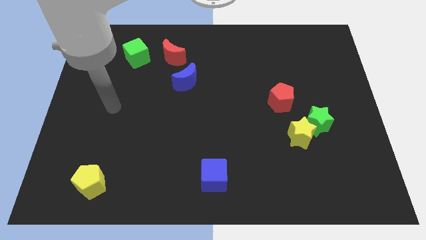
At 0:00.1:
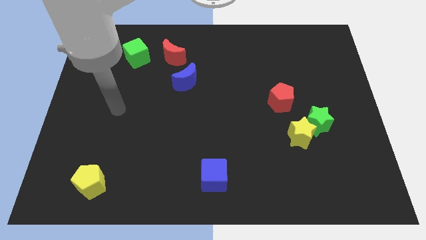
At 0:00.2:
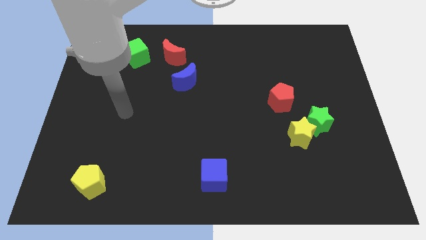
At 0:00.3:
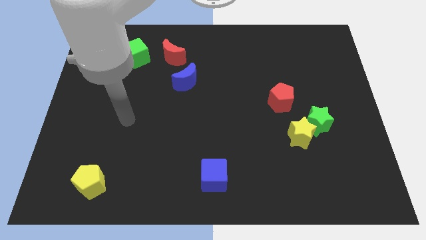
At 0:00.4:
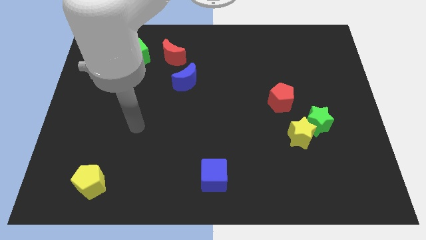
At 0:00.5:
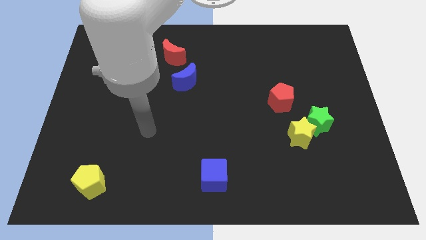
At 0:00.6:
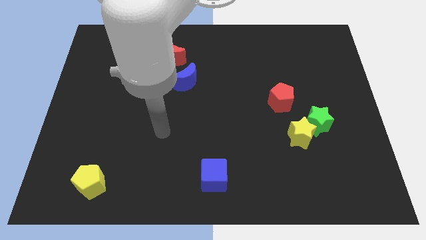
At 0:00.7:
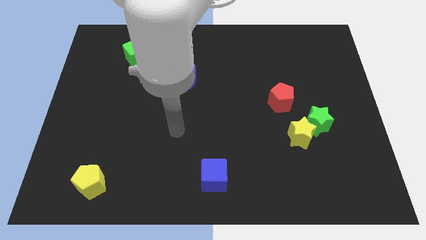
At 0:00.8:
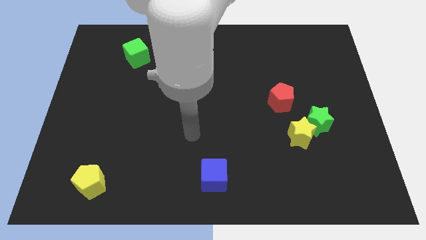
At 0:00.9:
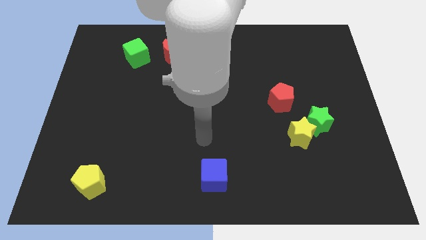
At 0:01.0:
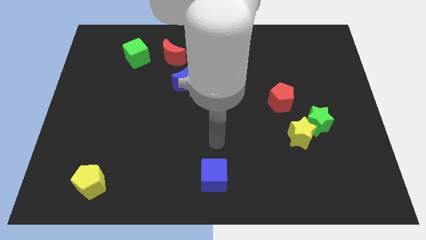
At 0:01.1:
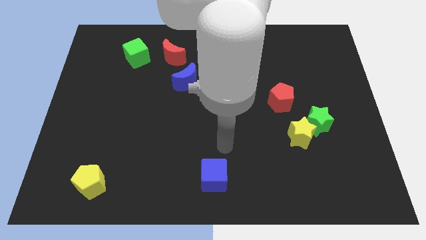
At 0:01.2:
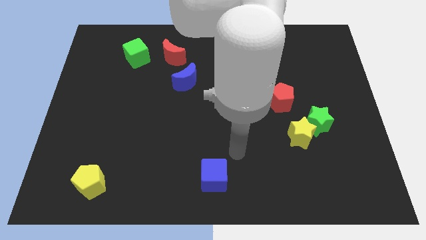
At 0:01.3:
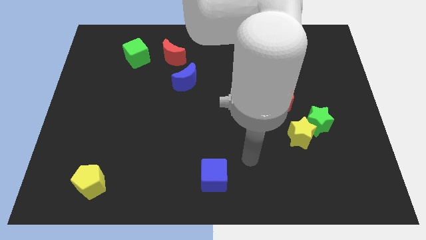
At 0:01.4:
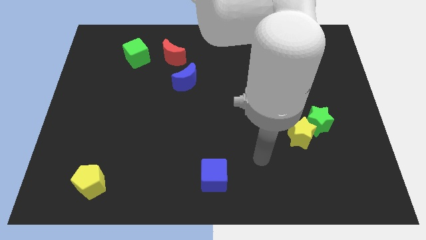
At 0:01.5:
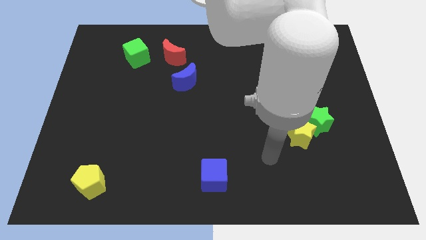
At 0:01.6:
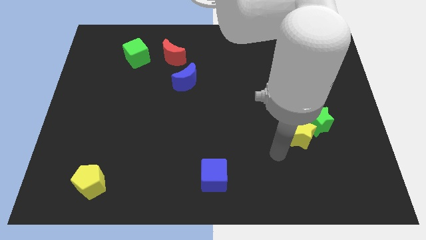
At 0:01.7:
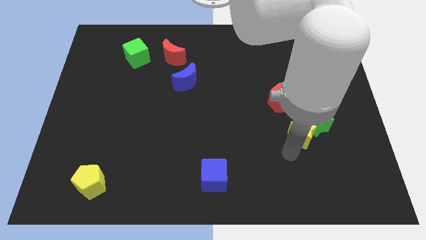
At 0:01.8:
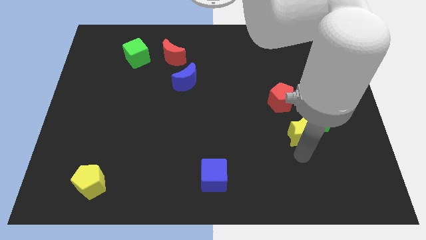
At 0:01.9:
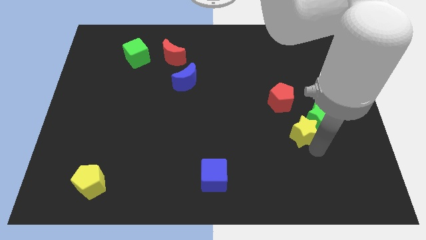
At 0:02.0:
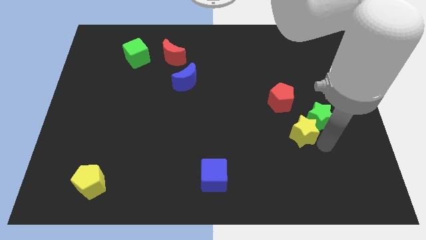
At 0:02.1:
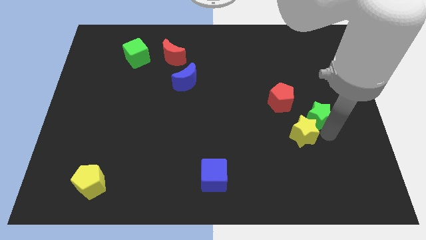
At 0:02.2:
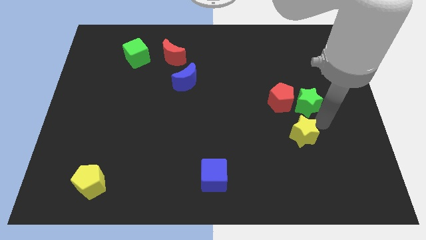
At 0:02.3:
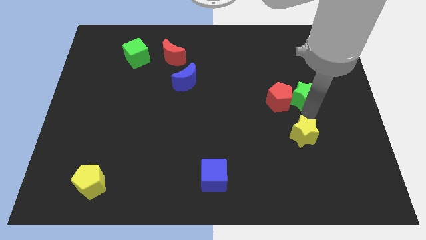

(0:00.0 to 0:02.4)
pull the yellow star apart from the green star

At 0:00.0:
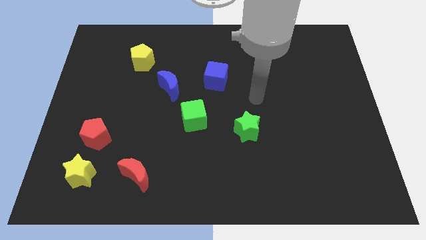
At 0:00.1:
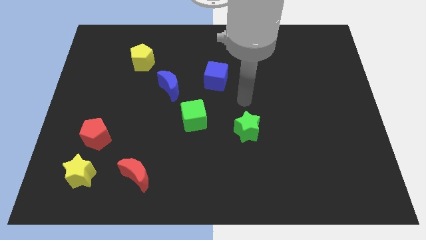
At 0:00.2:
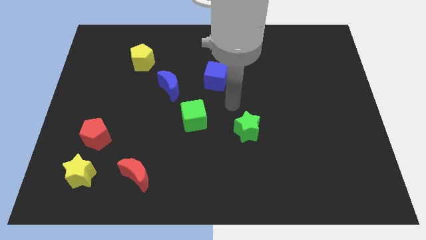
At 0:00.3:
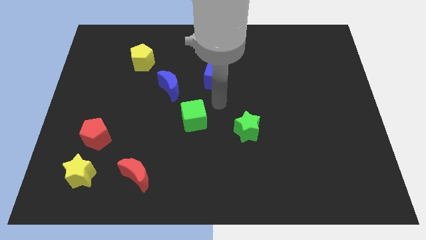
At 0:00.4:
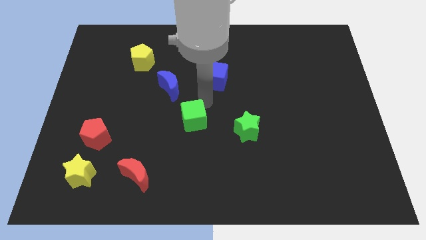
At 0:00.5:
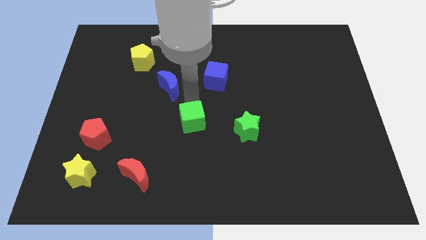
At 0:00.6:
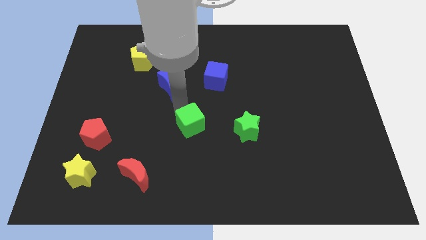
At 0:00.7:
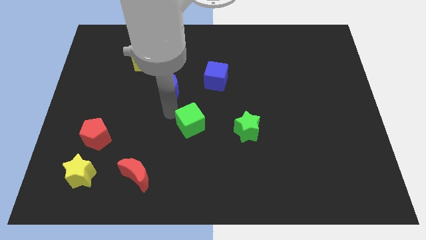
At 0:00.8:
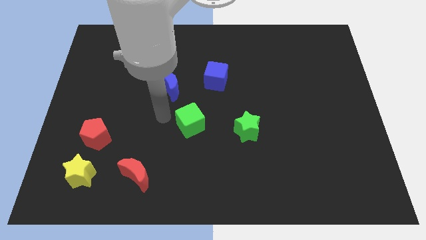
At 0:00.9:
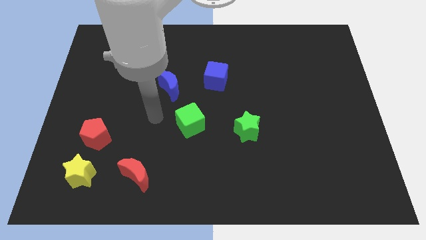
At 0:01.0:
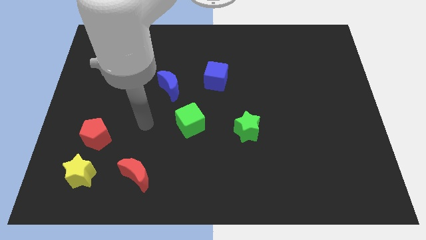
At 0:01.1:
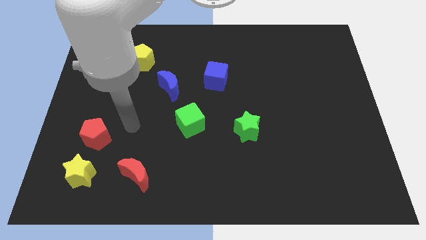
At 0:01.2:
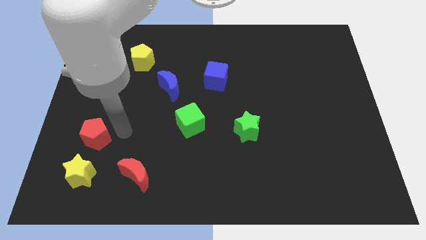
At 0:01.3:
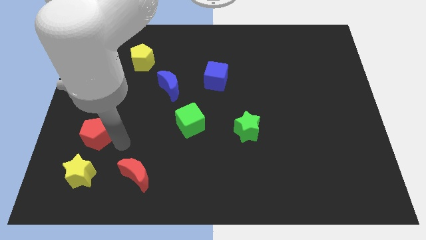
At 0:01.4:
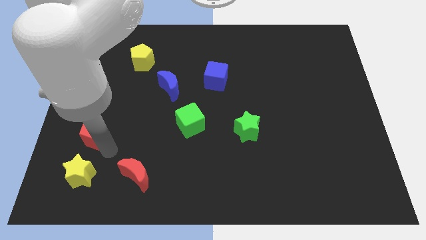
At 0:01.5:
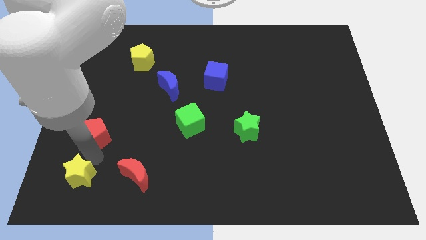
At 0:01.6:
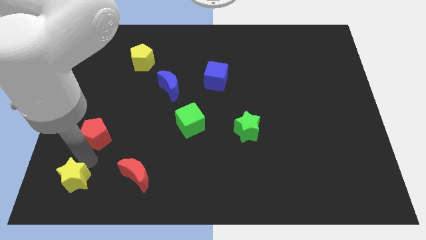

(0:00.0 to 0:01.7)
move the red pentagon away from the yellow star

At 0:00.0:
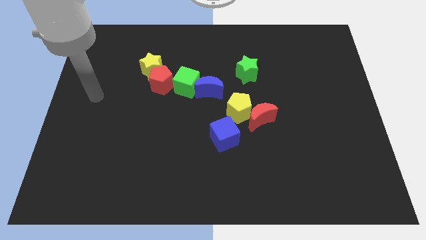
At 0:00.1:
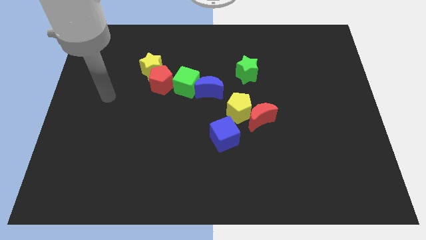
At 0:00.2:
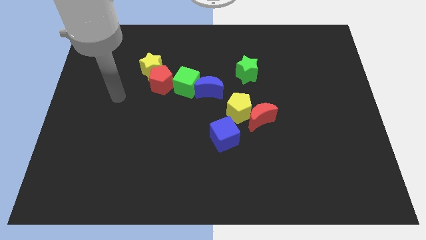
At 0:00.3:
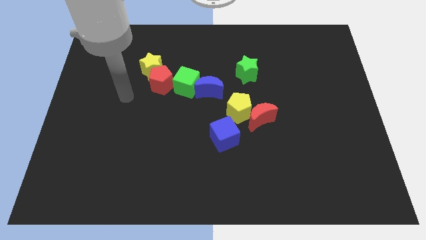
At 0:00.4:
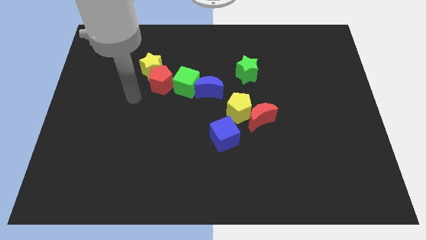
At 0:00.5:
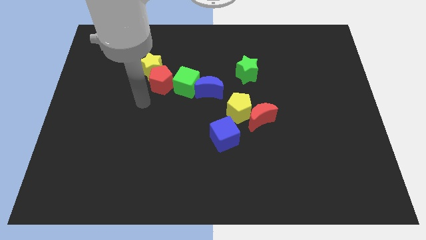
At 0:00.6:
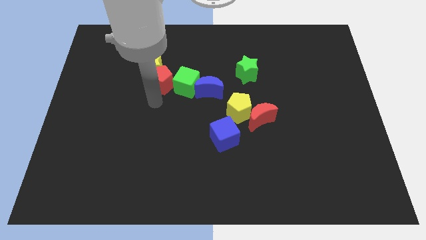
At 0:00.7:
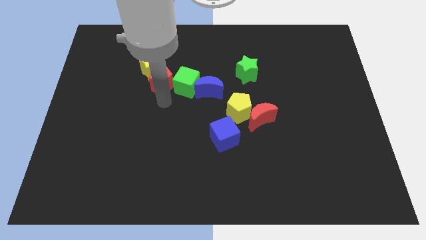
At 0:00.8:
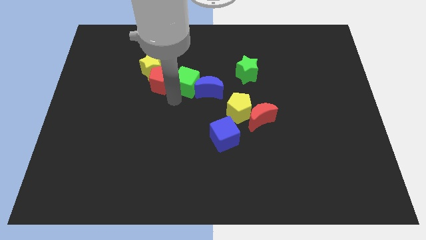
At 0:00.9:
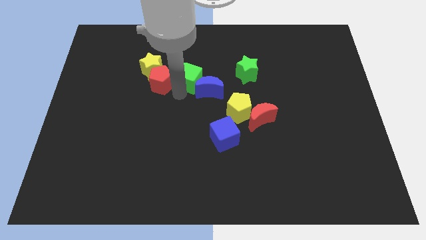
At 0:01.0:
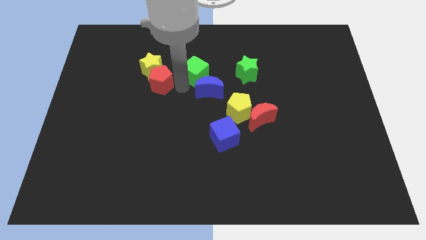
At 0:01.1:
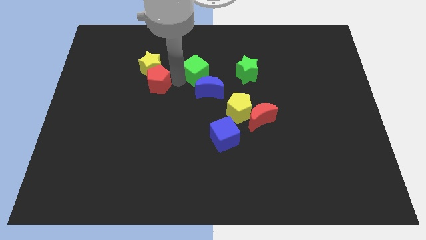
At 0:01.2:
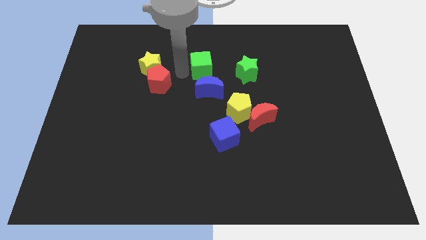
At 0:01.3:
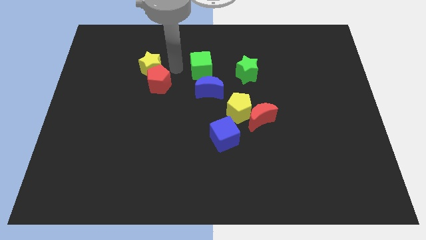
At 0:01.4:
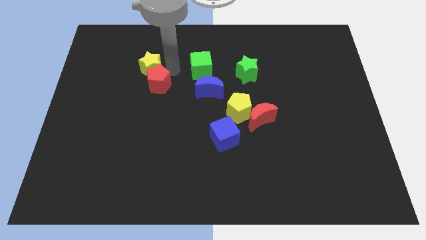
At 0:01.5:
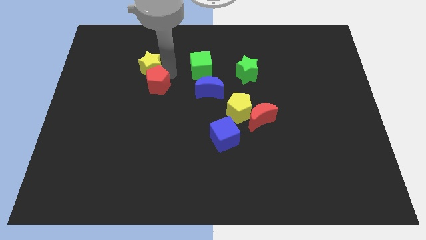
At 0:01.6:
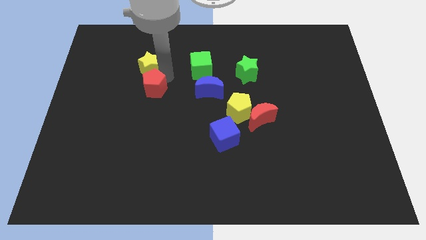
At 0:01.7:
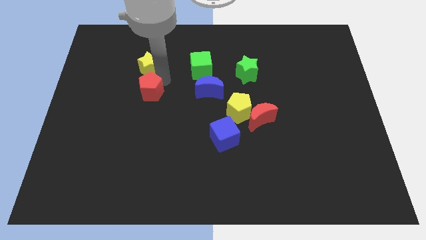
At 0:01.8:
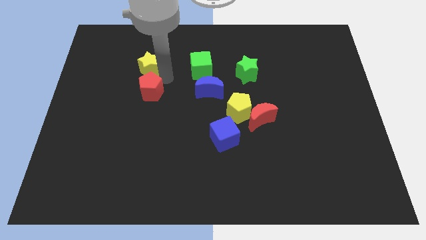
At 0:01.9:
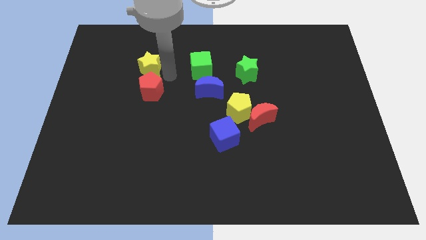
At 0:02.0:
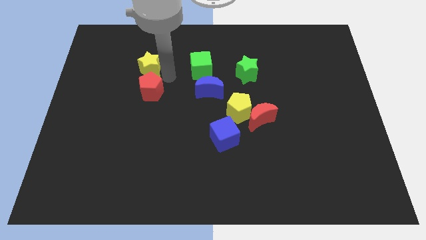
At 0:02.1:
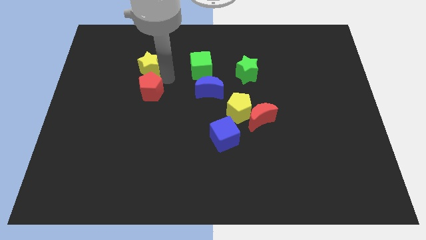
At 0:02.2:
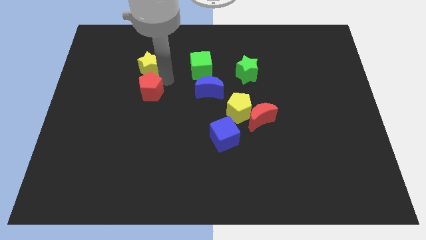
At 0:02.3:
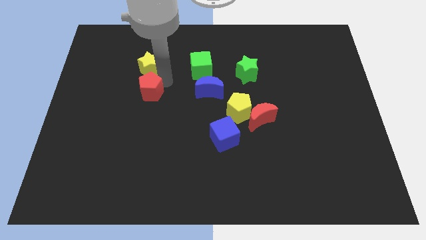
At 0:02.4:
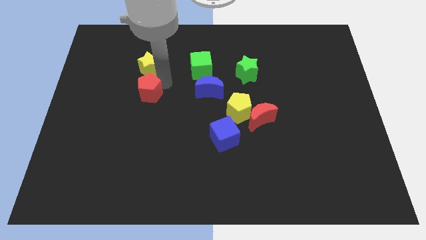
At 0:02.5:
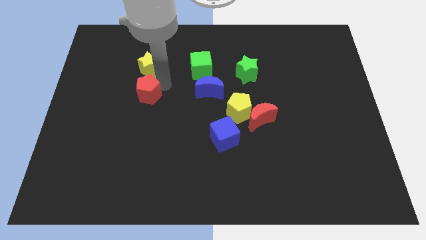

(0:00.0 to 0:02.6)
separate the red pentagon from the yellow star and green cube

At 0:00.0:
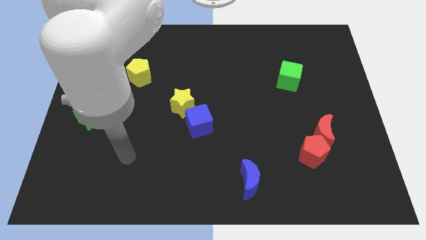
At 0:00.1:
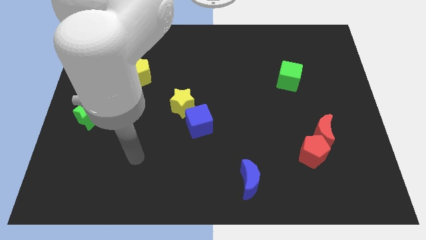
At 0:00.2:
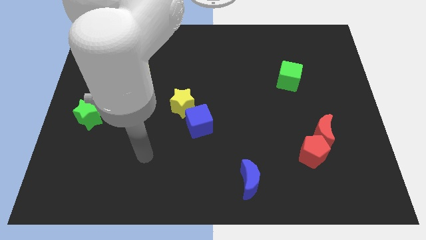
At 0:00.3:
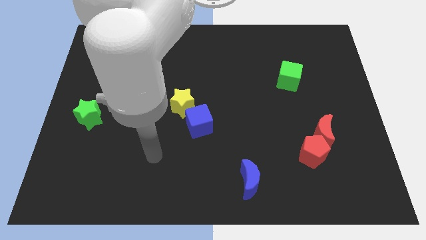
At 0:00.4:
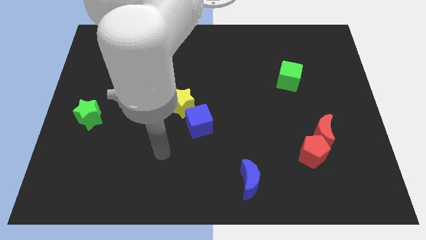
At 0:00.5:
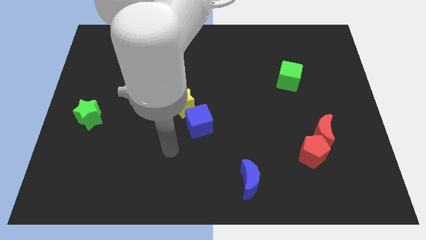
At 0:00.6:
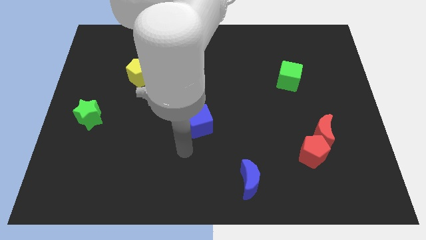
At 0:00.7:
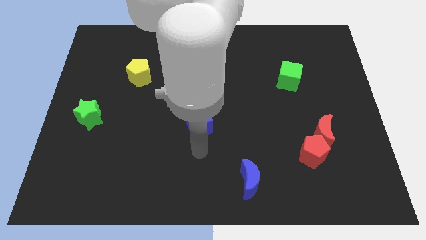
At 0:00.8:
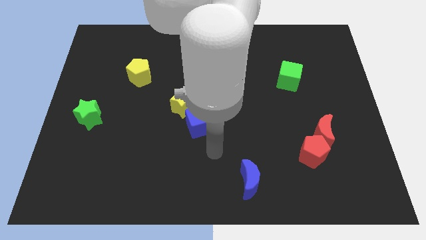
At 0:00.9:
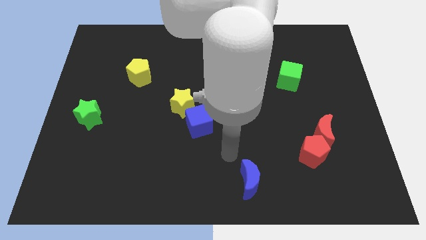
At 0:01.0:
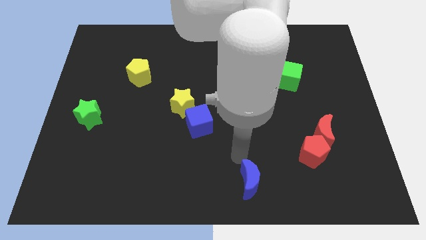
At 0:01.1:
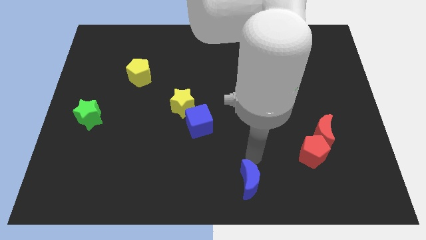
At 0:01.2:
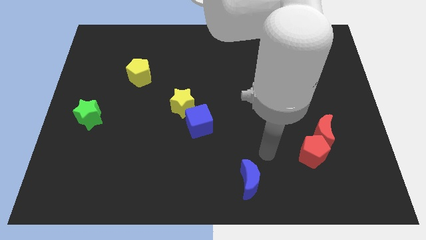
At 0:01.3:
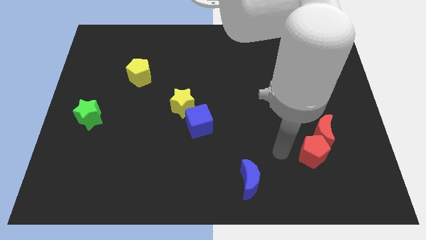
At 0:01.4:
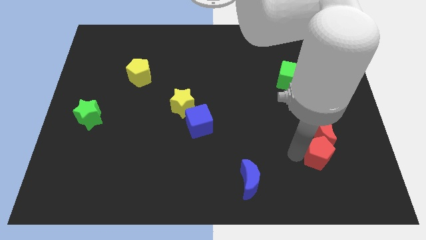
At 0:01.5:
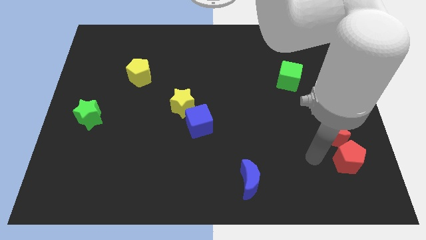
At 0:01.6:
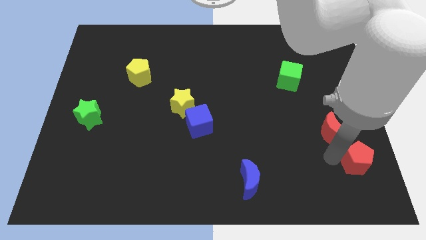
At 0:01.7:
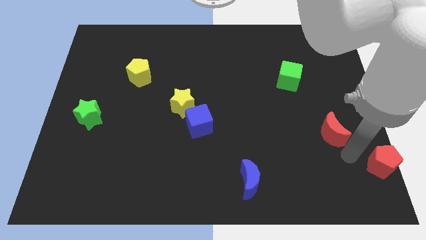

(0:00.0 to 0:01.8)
separate the red moon from the red pentagon

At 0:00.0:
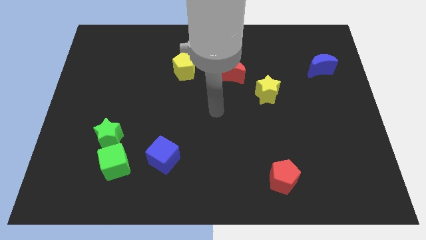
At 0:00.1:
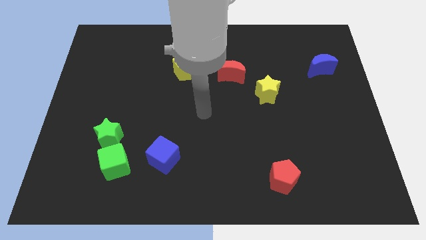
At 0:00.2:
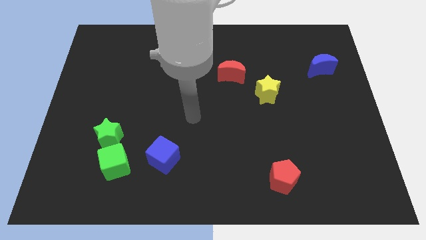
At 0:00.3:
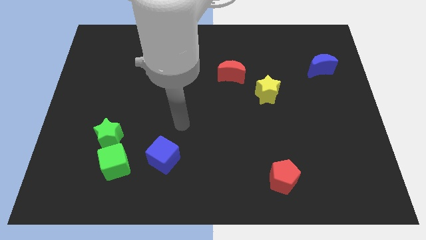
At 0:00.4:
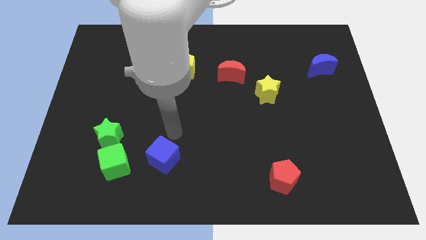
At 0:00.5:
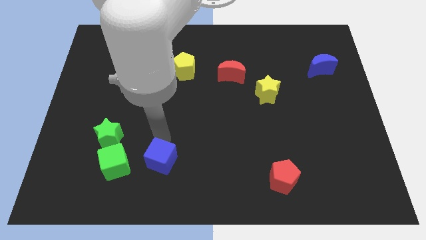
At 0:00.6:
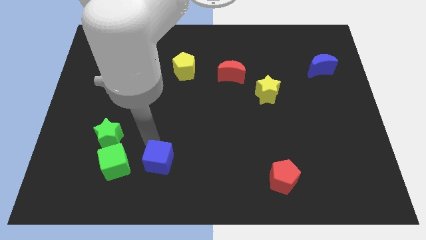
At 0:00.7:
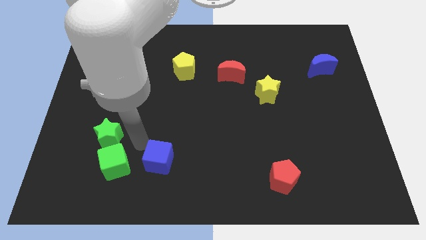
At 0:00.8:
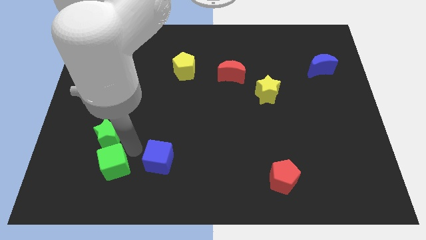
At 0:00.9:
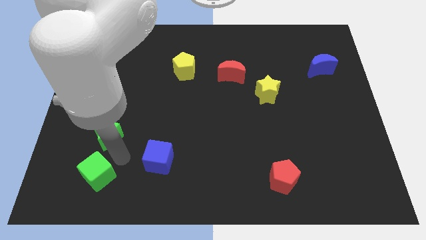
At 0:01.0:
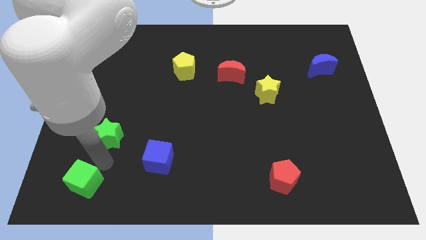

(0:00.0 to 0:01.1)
separate the green star from the green cube
